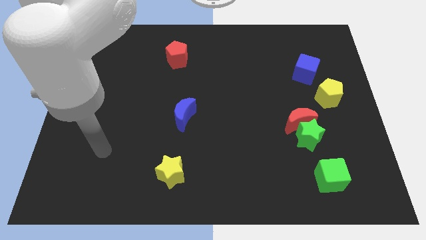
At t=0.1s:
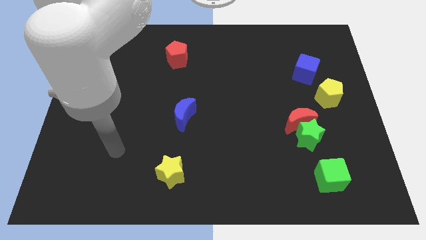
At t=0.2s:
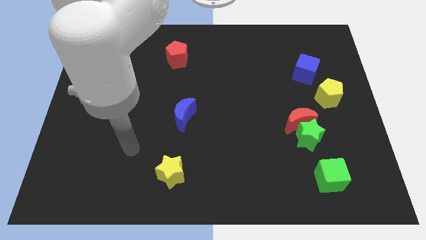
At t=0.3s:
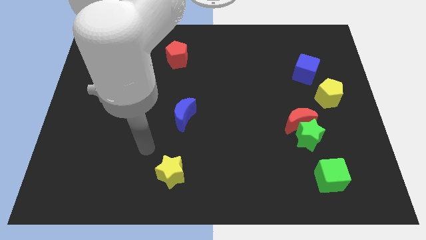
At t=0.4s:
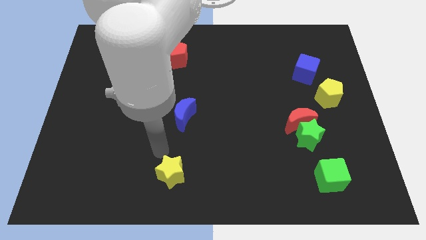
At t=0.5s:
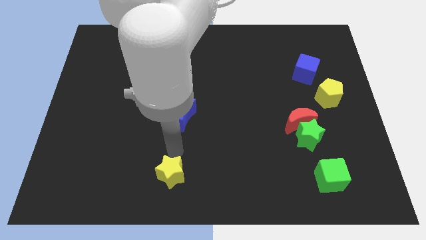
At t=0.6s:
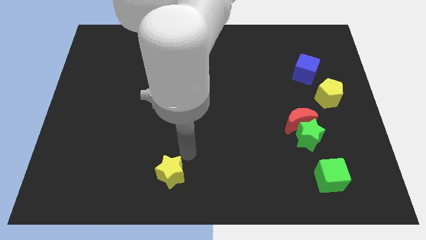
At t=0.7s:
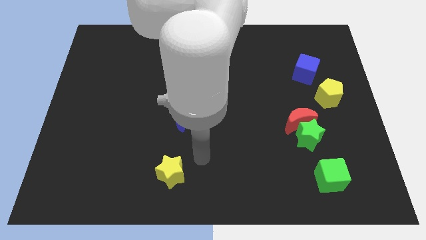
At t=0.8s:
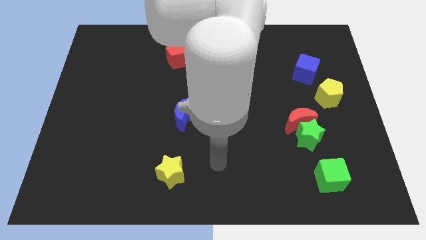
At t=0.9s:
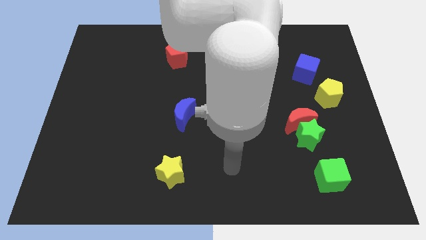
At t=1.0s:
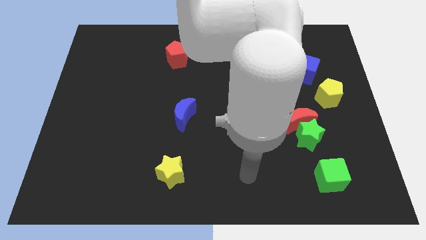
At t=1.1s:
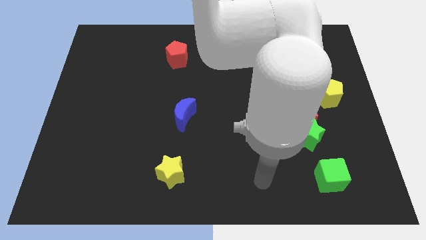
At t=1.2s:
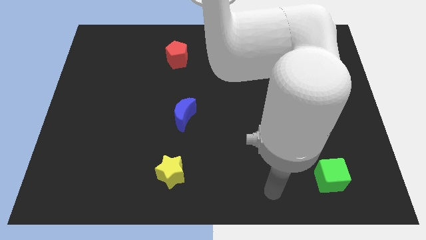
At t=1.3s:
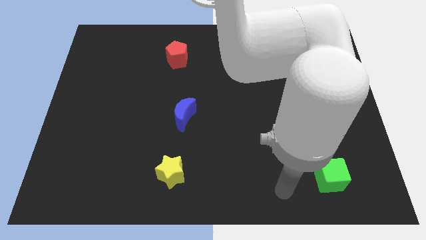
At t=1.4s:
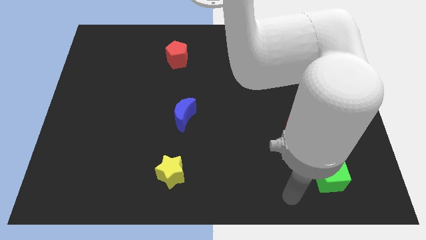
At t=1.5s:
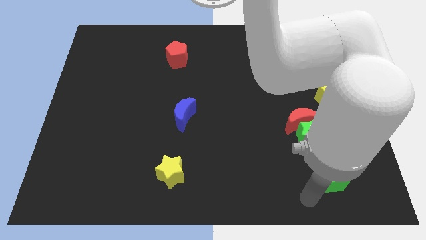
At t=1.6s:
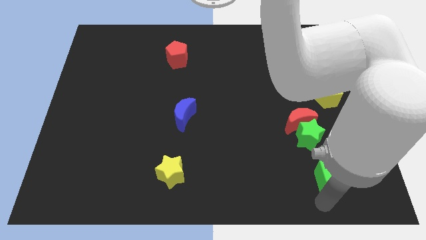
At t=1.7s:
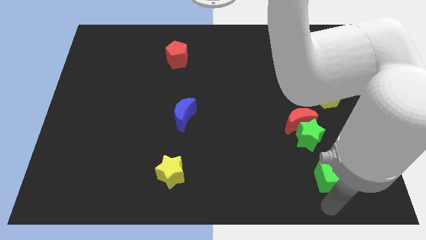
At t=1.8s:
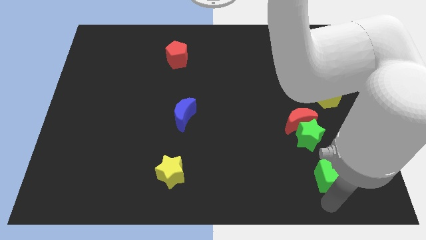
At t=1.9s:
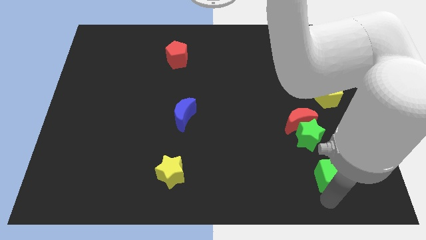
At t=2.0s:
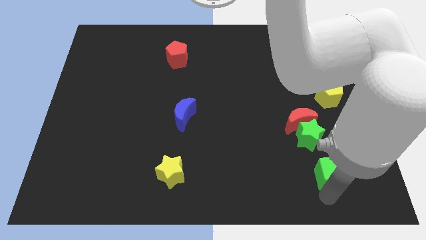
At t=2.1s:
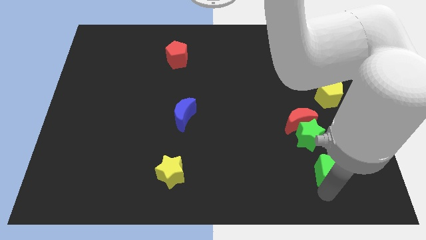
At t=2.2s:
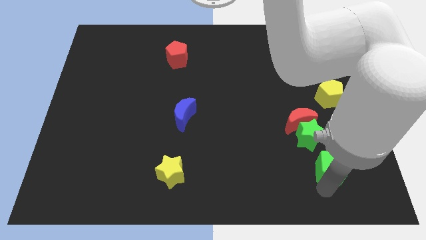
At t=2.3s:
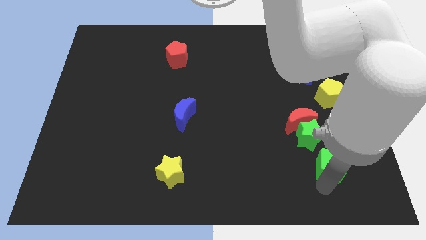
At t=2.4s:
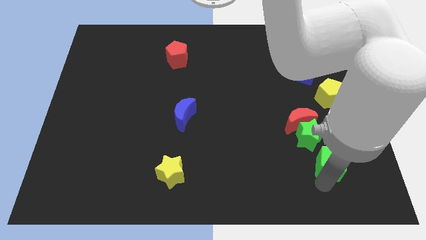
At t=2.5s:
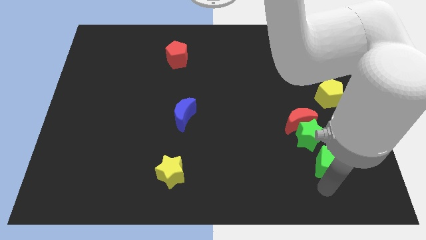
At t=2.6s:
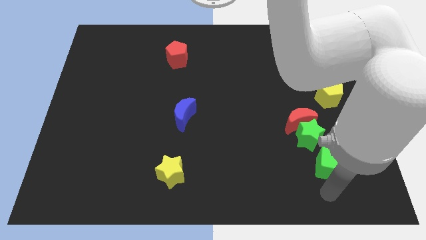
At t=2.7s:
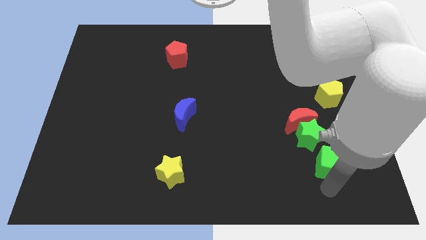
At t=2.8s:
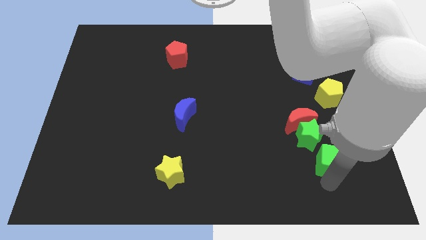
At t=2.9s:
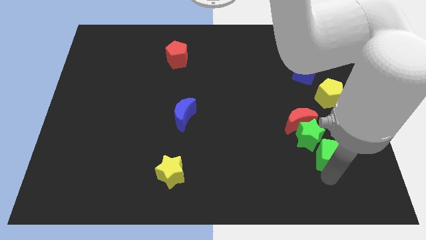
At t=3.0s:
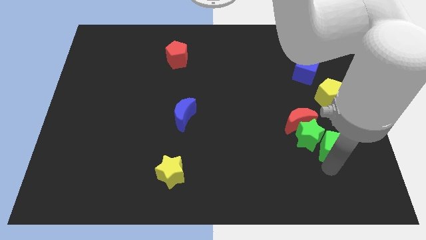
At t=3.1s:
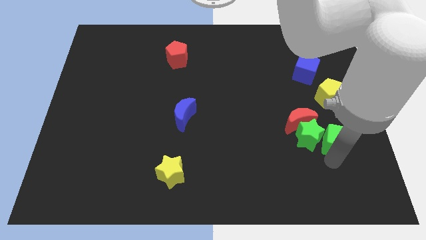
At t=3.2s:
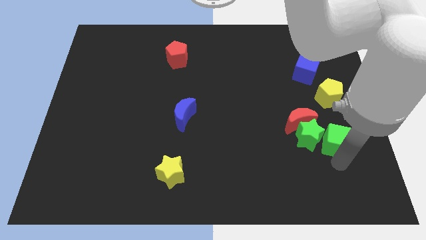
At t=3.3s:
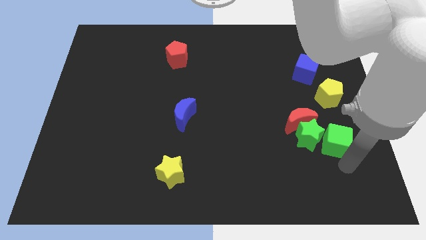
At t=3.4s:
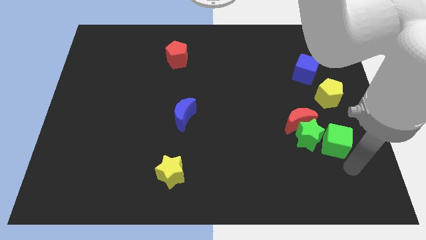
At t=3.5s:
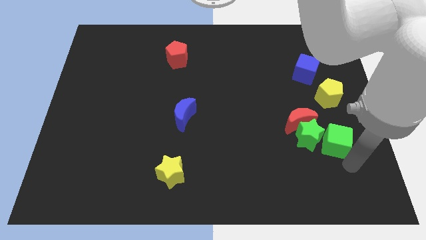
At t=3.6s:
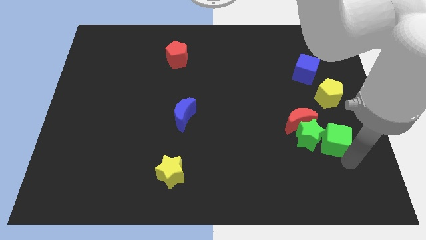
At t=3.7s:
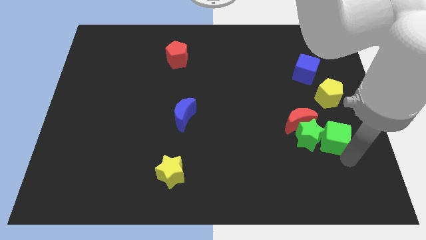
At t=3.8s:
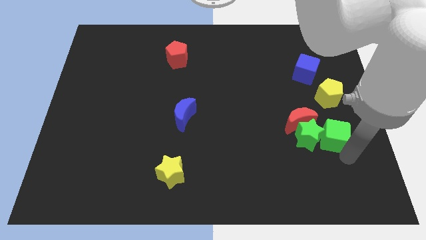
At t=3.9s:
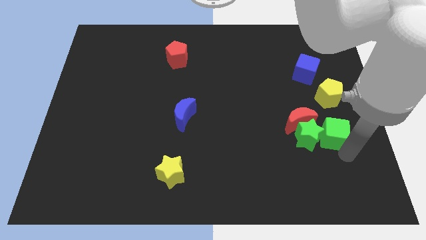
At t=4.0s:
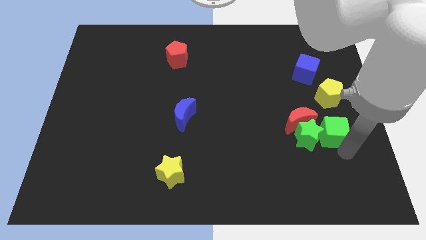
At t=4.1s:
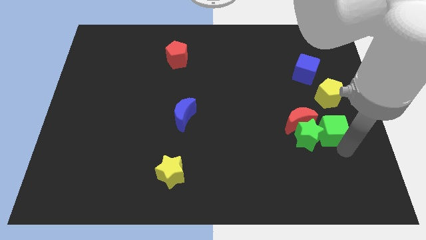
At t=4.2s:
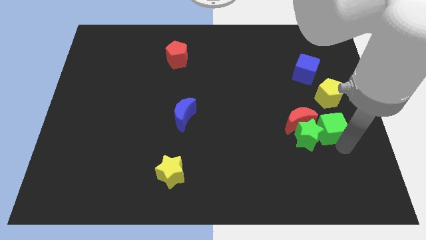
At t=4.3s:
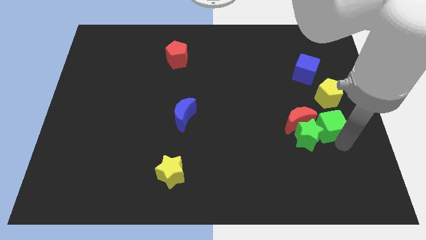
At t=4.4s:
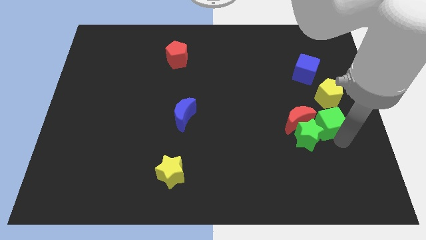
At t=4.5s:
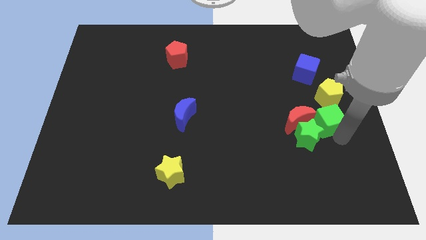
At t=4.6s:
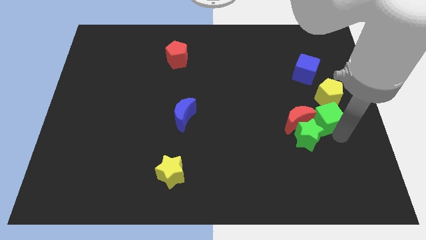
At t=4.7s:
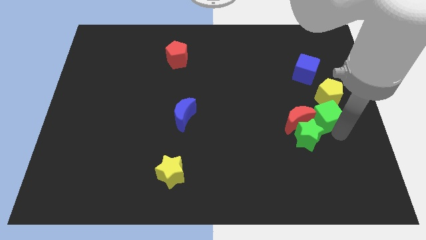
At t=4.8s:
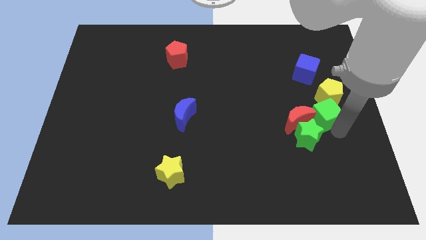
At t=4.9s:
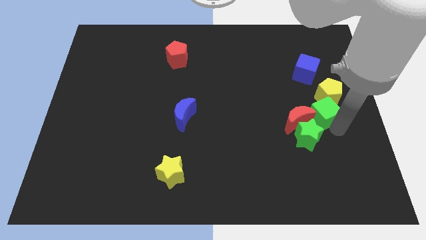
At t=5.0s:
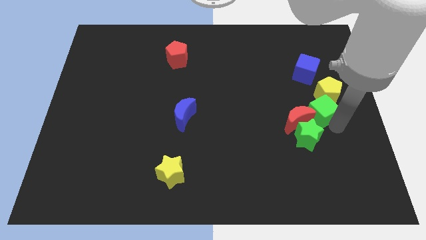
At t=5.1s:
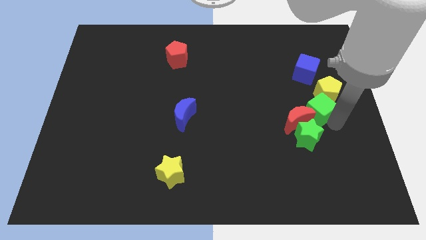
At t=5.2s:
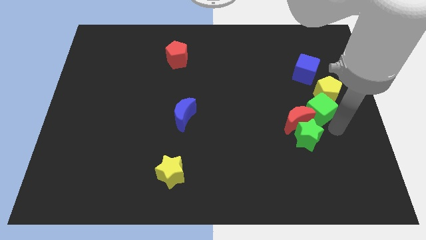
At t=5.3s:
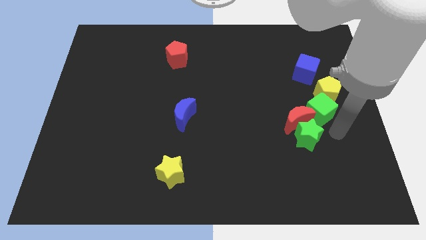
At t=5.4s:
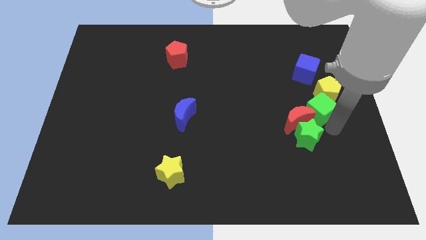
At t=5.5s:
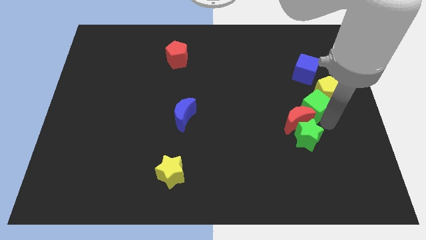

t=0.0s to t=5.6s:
put the green cube above the red moon

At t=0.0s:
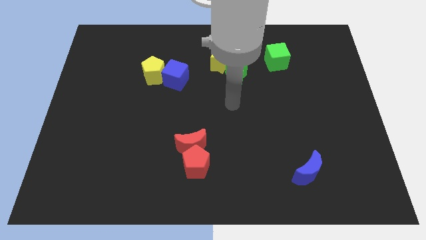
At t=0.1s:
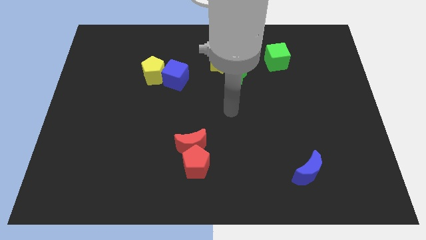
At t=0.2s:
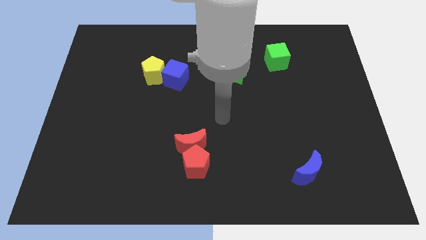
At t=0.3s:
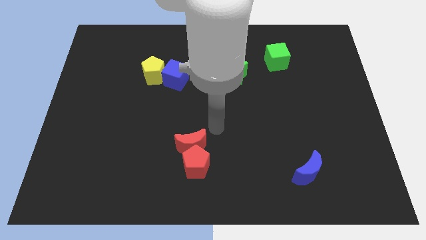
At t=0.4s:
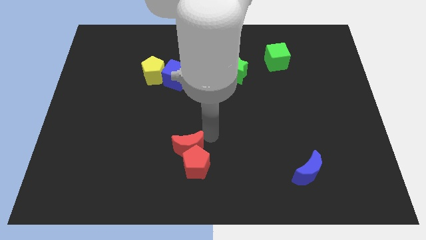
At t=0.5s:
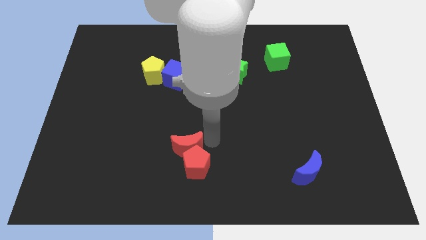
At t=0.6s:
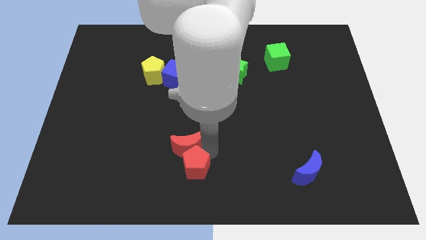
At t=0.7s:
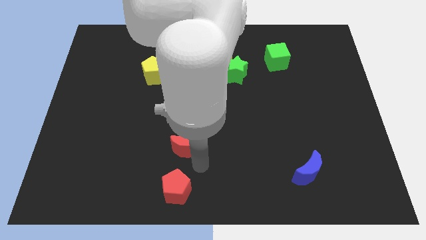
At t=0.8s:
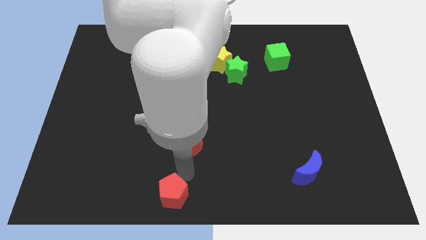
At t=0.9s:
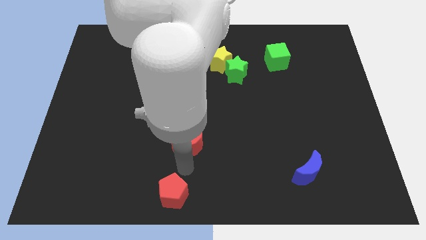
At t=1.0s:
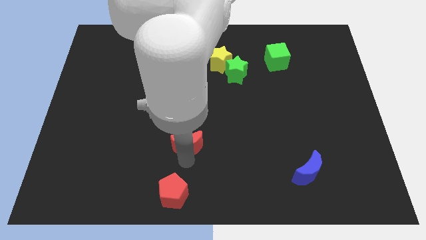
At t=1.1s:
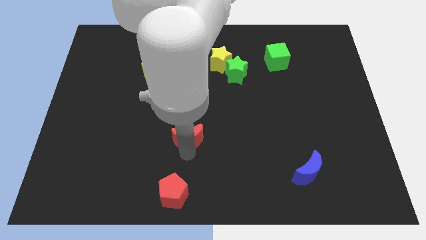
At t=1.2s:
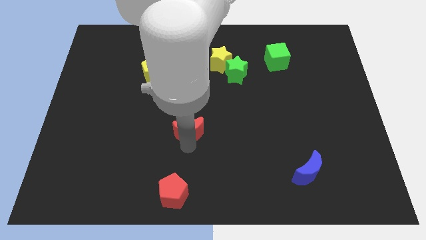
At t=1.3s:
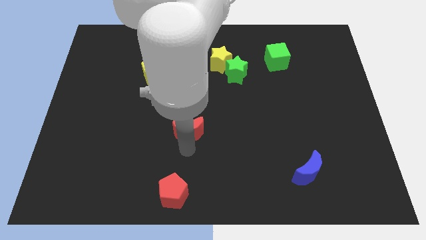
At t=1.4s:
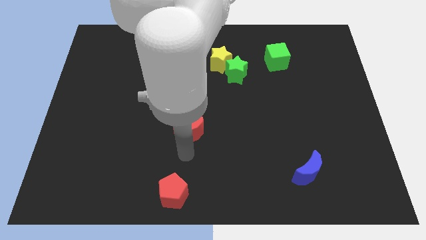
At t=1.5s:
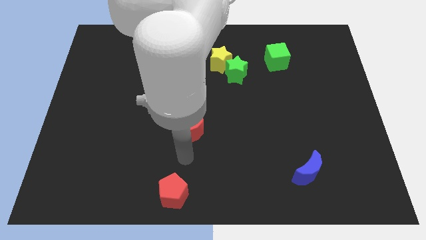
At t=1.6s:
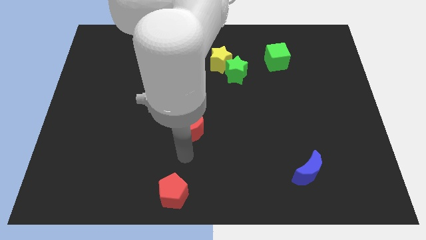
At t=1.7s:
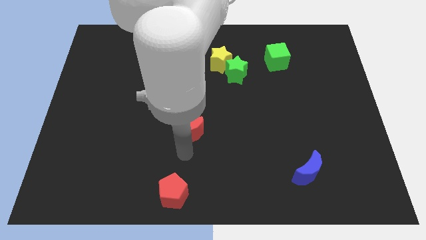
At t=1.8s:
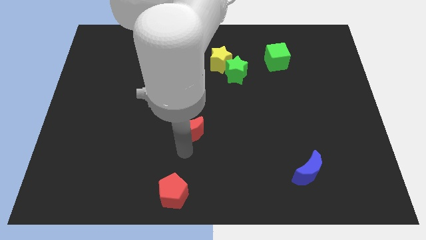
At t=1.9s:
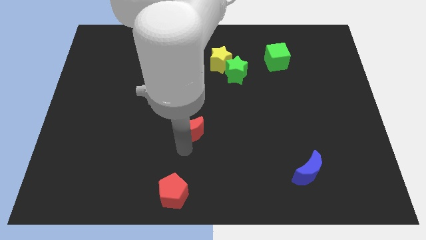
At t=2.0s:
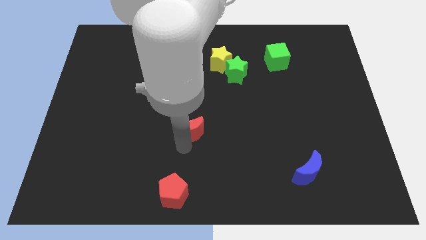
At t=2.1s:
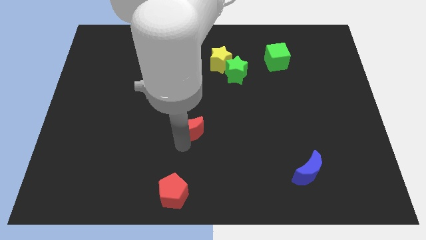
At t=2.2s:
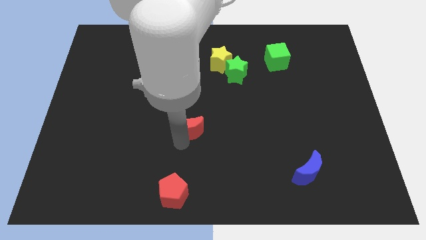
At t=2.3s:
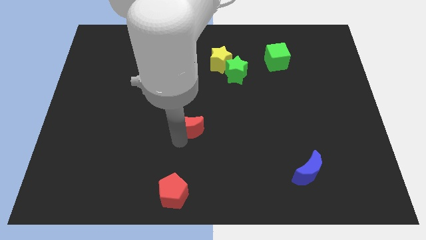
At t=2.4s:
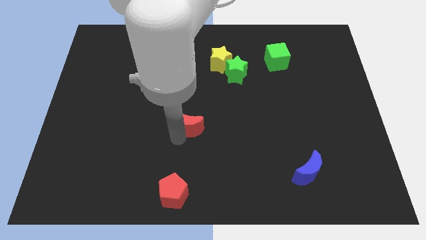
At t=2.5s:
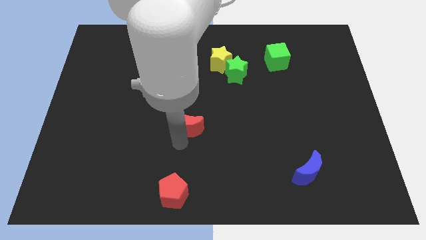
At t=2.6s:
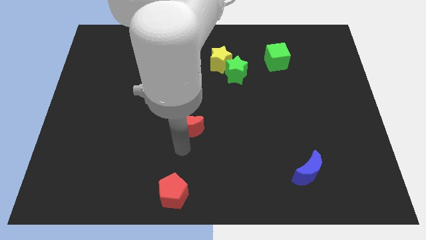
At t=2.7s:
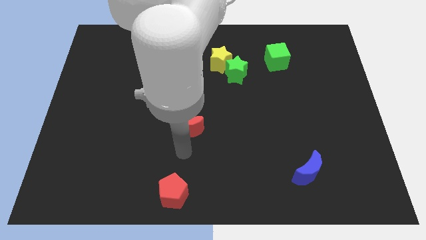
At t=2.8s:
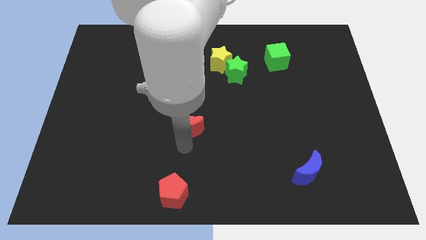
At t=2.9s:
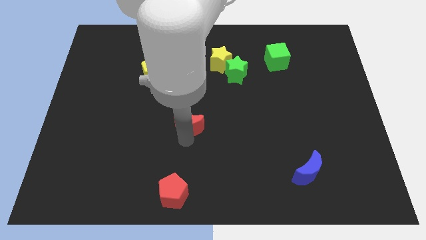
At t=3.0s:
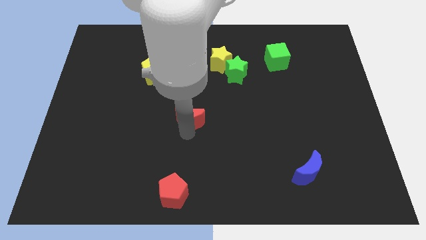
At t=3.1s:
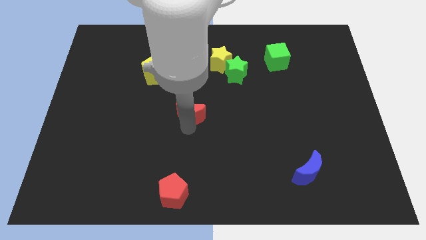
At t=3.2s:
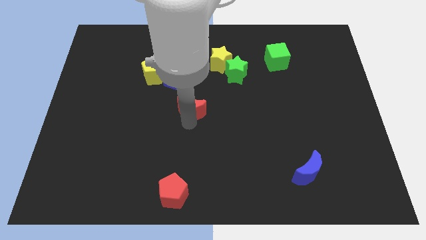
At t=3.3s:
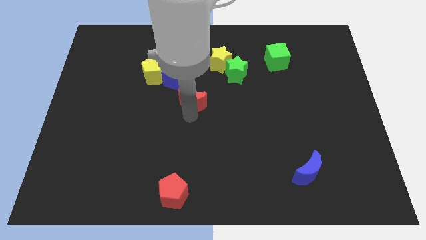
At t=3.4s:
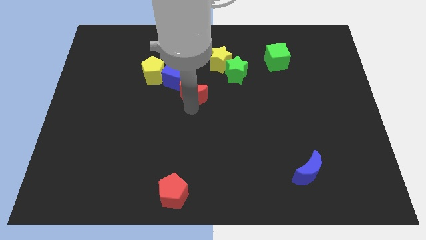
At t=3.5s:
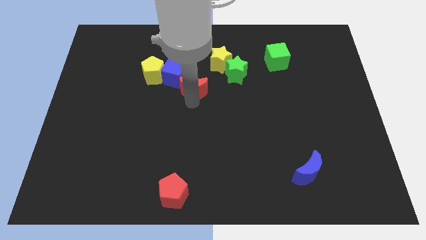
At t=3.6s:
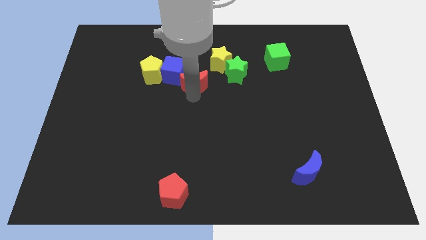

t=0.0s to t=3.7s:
move the red moon right of the yellow pentagon
